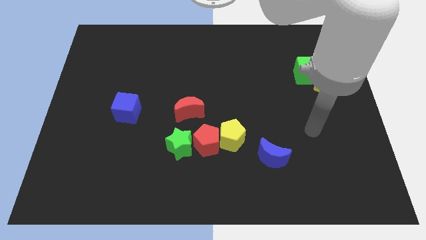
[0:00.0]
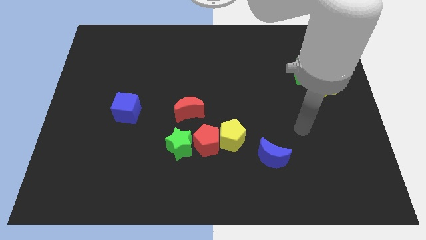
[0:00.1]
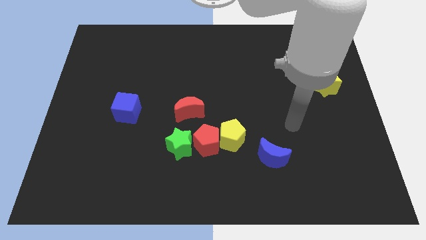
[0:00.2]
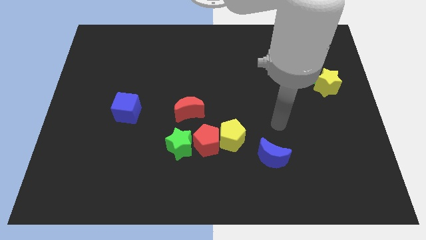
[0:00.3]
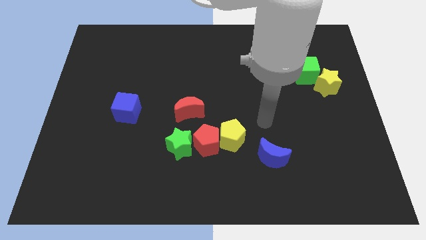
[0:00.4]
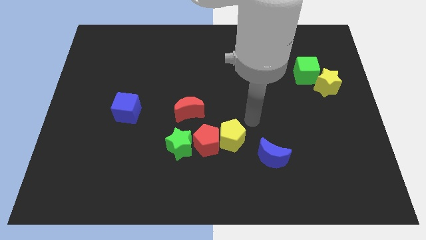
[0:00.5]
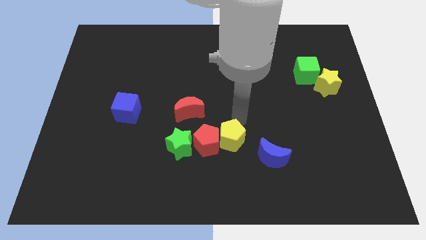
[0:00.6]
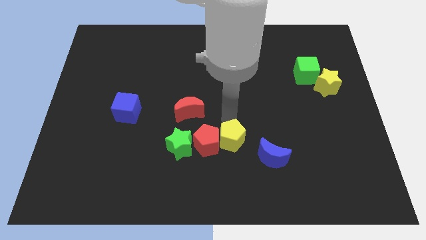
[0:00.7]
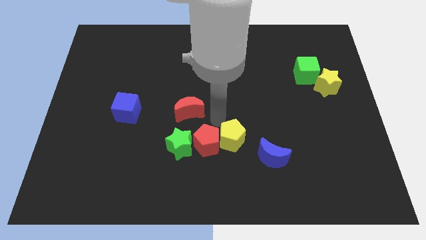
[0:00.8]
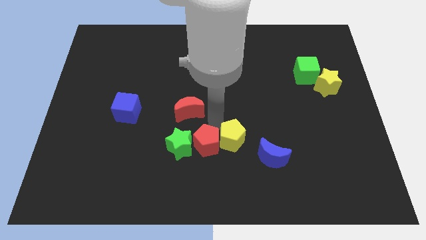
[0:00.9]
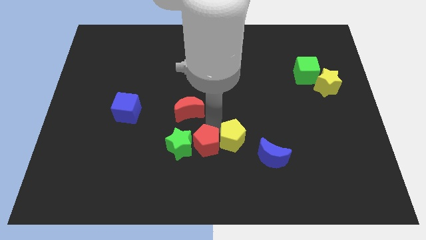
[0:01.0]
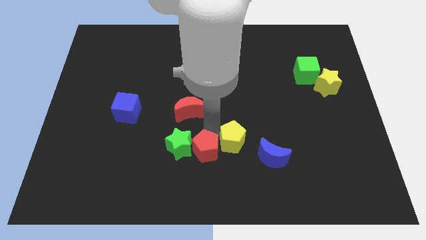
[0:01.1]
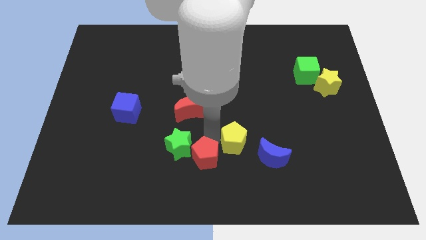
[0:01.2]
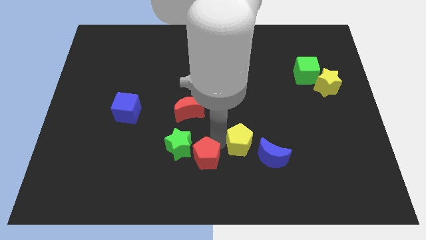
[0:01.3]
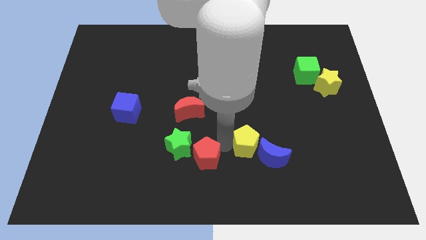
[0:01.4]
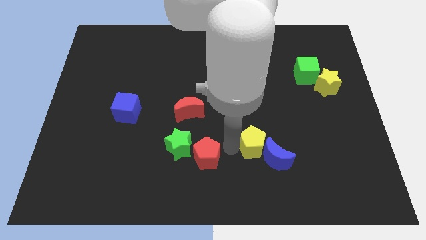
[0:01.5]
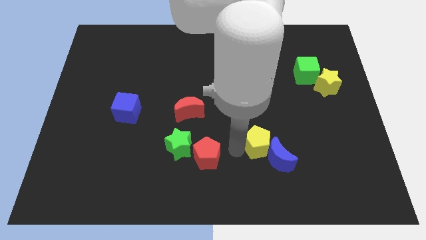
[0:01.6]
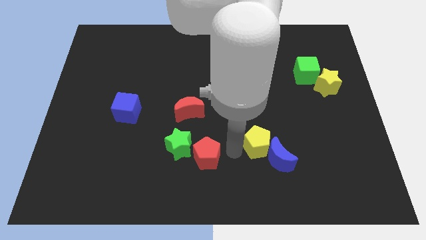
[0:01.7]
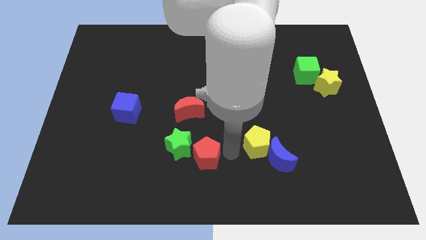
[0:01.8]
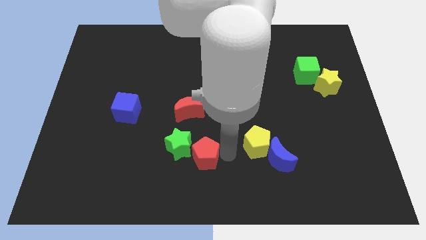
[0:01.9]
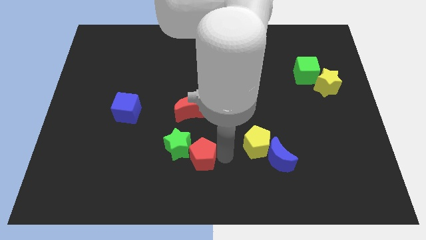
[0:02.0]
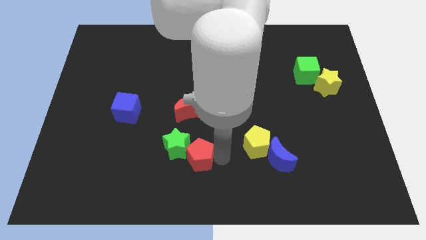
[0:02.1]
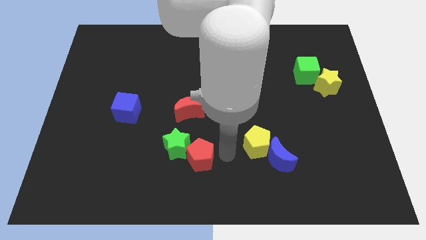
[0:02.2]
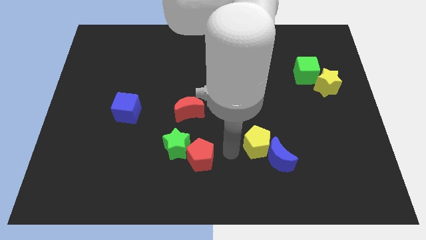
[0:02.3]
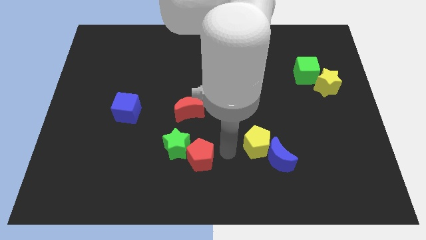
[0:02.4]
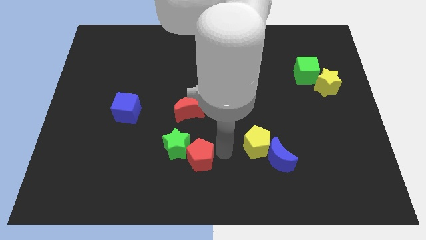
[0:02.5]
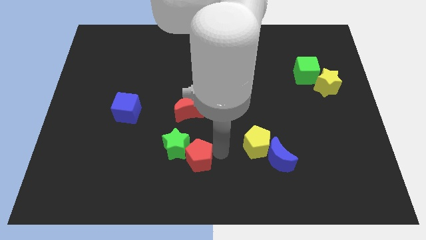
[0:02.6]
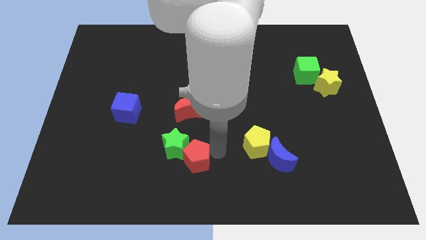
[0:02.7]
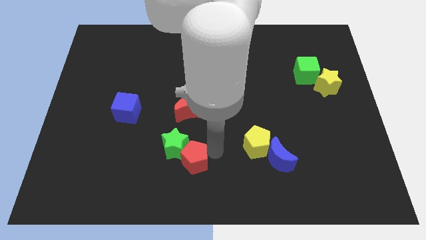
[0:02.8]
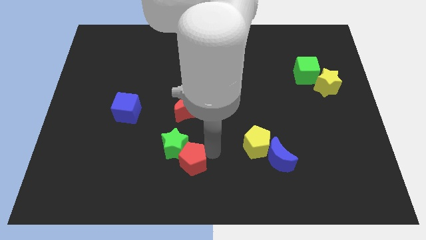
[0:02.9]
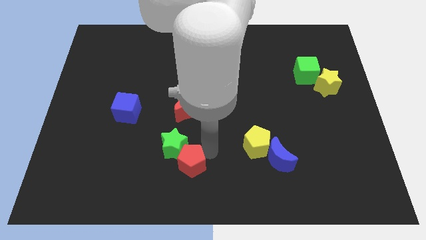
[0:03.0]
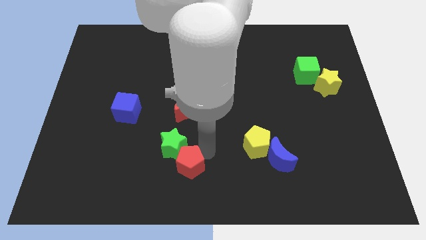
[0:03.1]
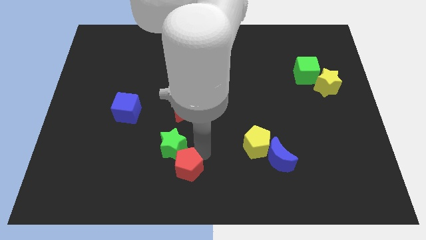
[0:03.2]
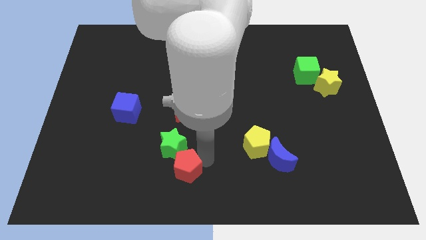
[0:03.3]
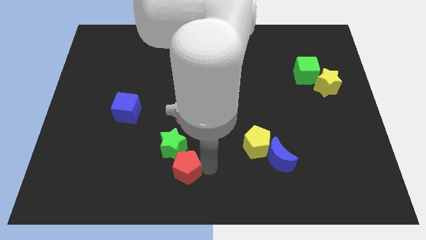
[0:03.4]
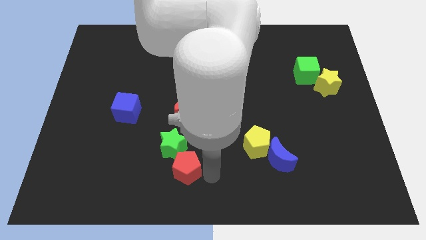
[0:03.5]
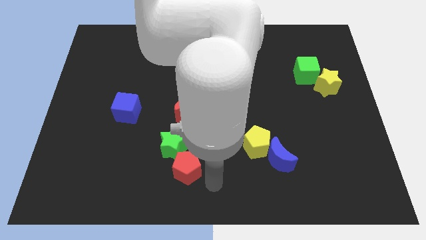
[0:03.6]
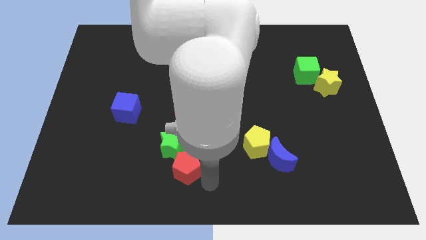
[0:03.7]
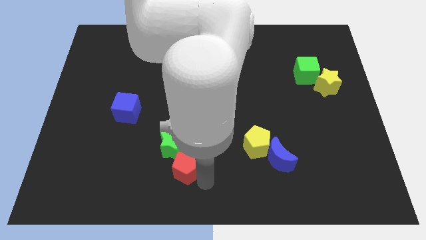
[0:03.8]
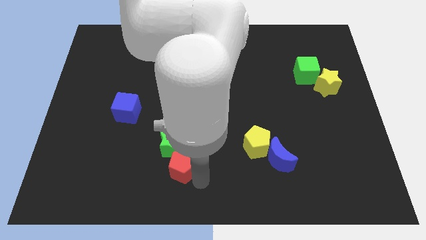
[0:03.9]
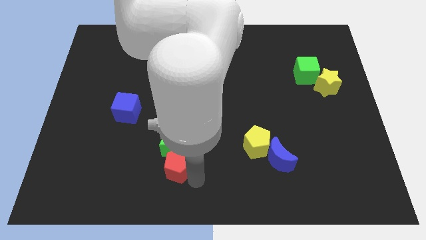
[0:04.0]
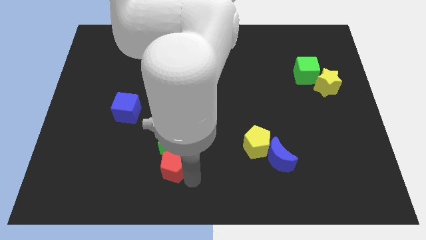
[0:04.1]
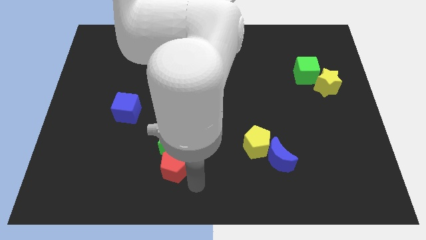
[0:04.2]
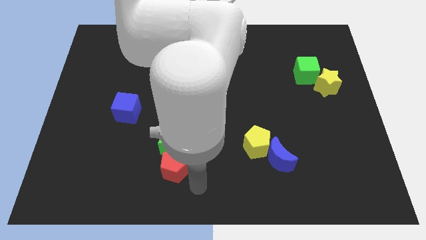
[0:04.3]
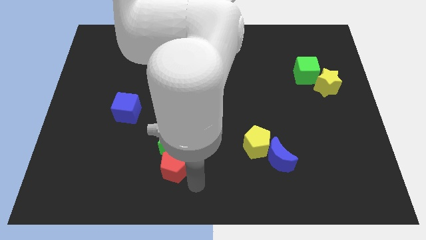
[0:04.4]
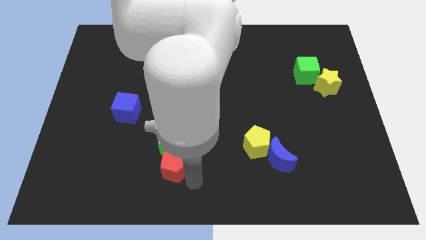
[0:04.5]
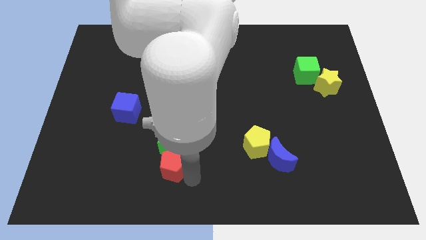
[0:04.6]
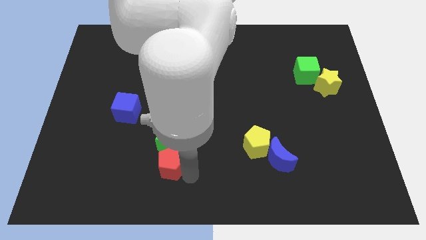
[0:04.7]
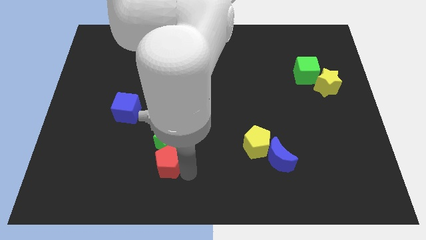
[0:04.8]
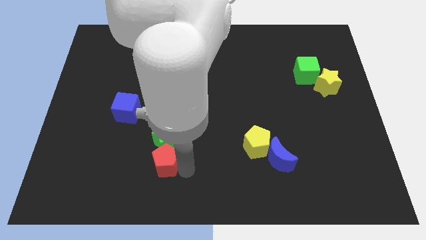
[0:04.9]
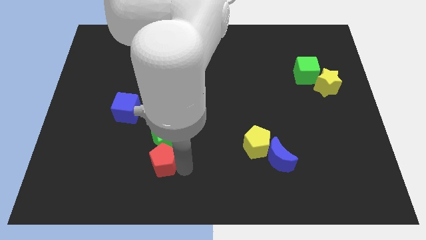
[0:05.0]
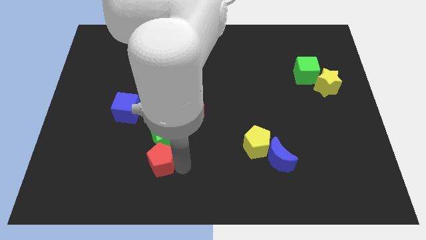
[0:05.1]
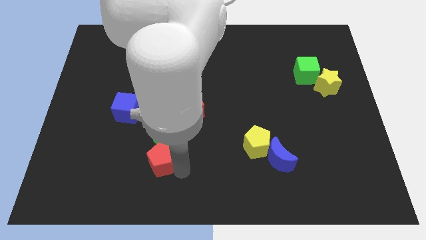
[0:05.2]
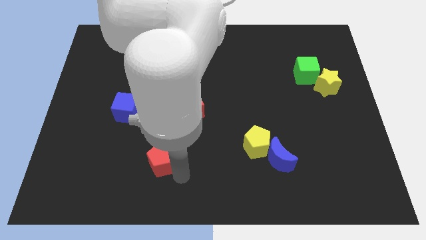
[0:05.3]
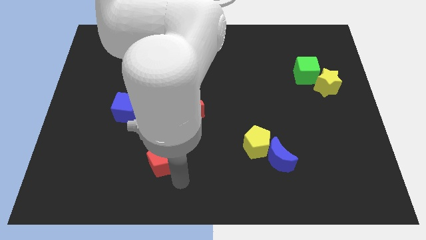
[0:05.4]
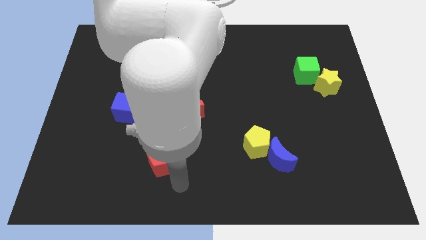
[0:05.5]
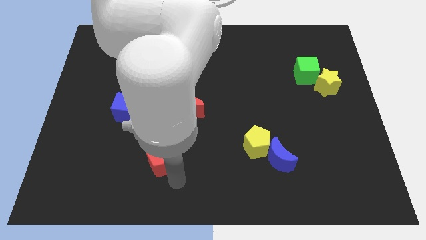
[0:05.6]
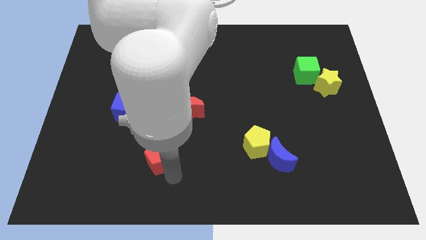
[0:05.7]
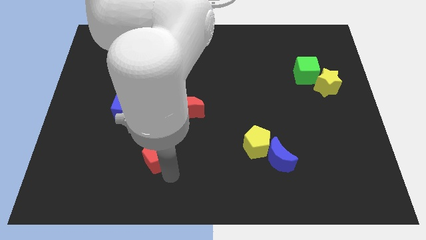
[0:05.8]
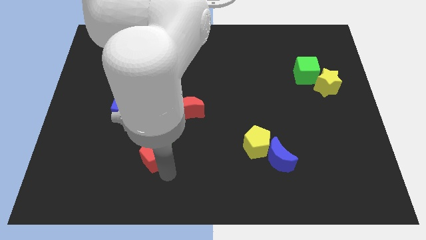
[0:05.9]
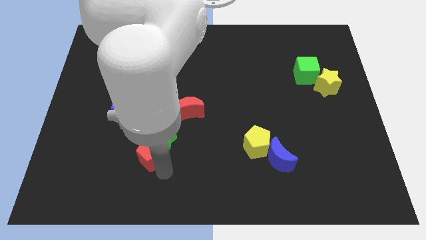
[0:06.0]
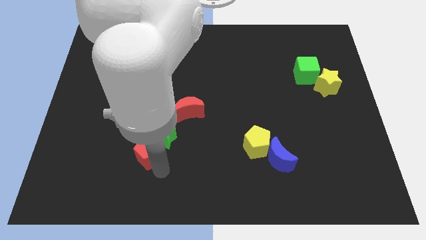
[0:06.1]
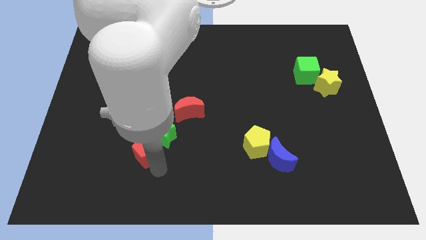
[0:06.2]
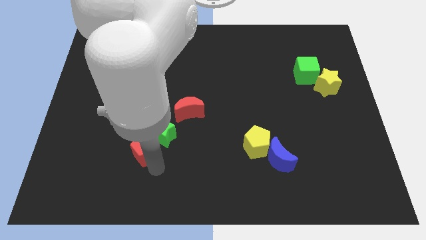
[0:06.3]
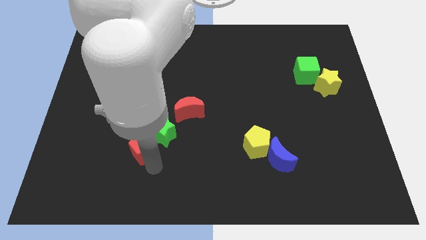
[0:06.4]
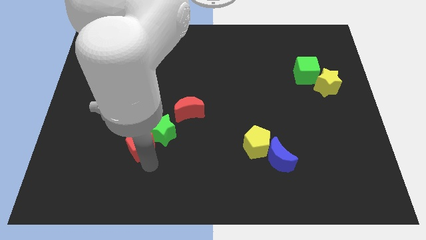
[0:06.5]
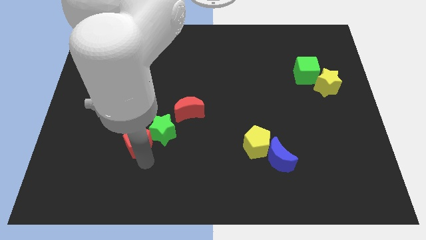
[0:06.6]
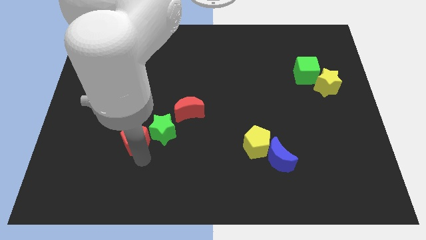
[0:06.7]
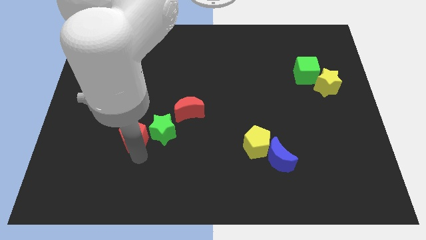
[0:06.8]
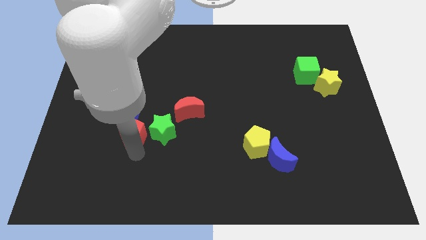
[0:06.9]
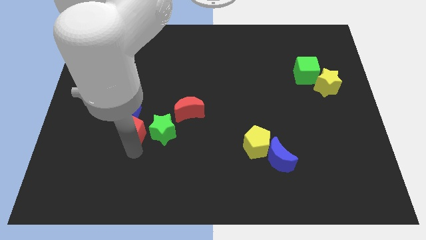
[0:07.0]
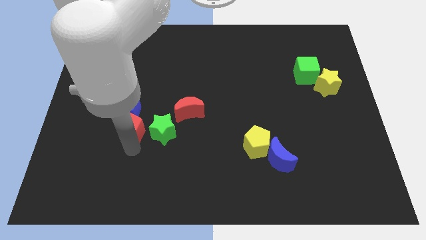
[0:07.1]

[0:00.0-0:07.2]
slide the red pentagon towards the blue cube
